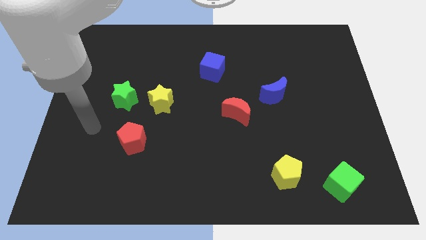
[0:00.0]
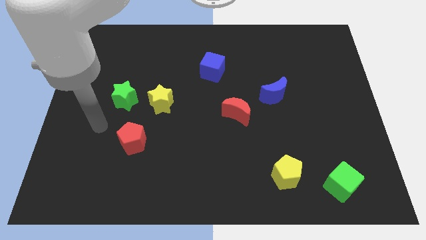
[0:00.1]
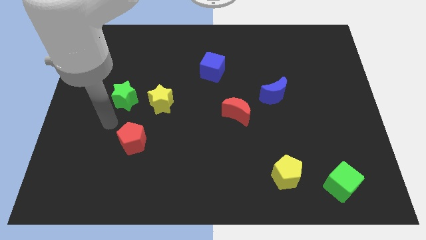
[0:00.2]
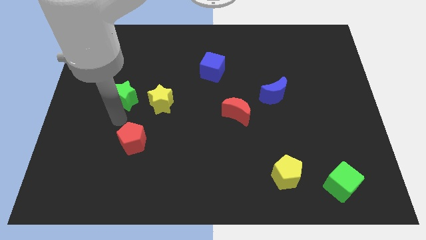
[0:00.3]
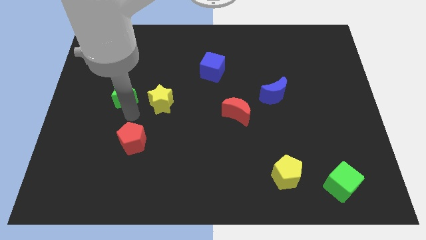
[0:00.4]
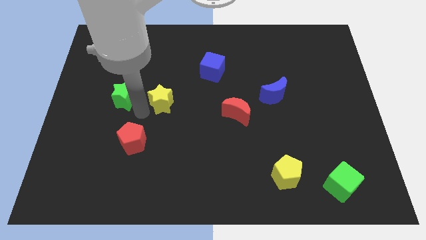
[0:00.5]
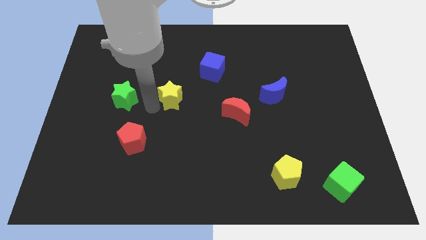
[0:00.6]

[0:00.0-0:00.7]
move the green star away from the yellow star

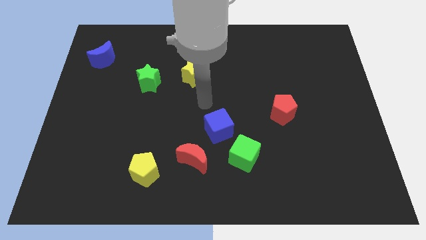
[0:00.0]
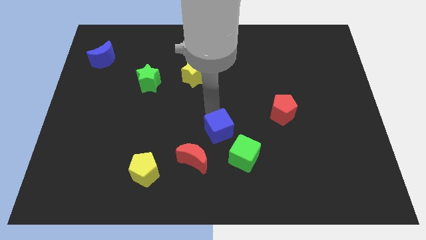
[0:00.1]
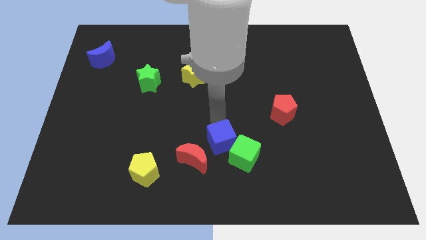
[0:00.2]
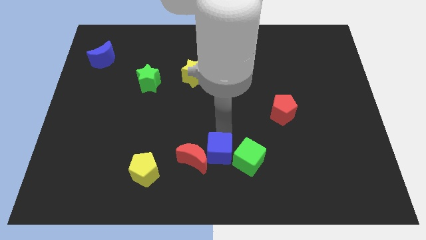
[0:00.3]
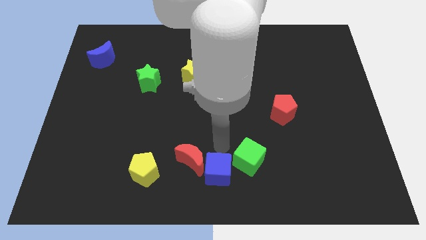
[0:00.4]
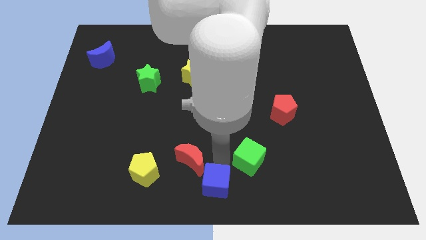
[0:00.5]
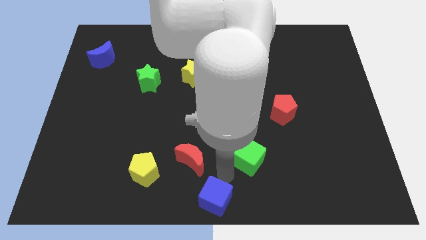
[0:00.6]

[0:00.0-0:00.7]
separate the green cube from the blue cube

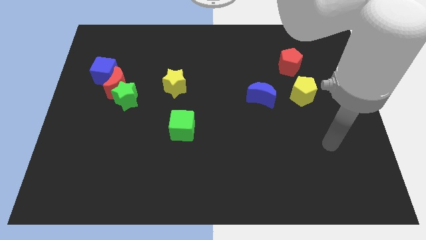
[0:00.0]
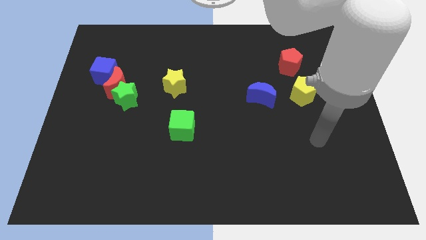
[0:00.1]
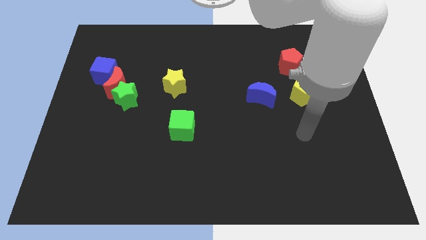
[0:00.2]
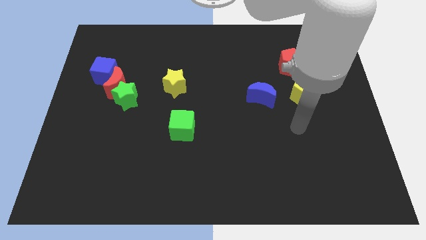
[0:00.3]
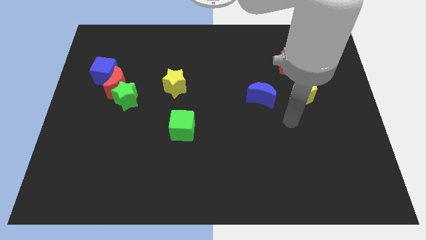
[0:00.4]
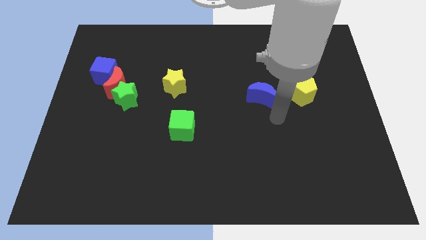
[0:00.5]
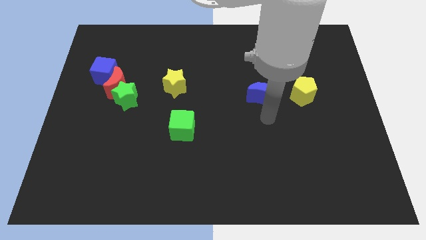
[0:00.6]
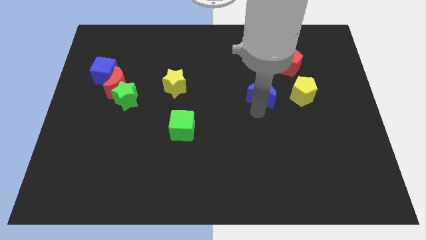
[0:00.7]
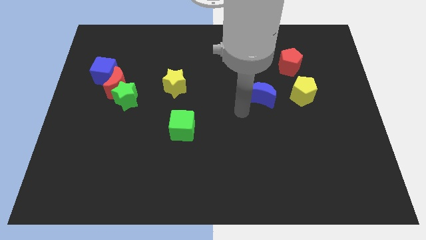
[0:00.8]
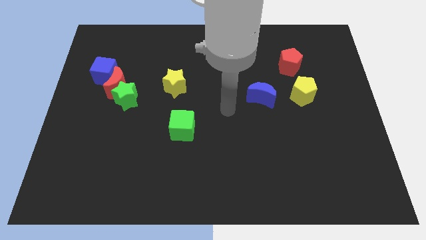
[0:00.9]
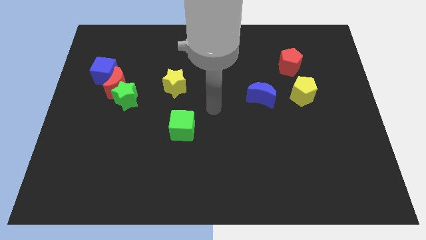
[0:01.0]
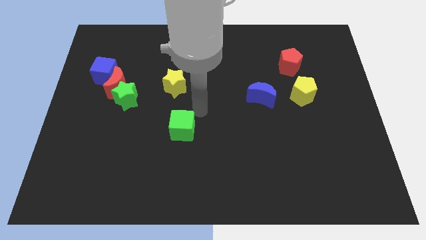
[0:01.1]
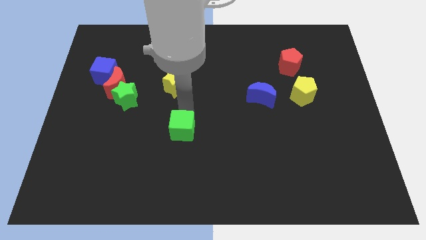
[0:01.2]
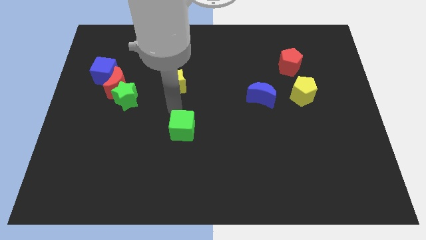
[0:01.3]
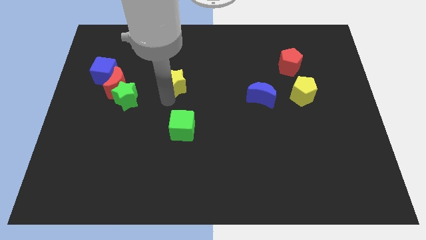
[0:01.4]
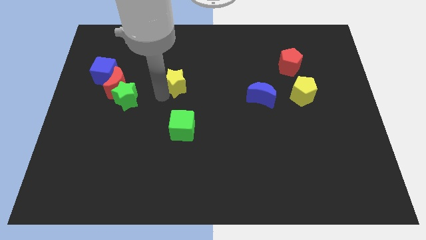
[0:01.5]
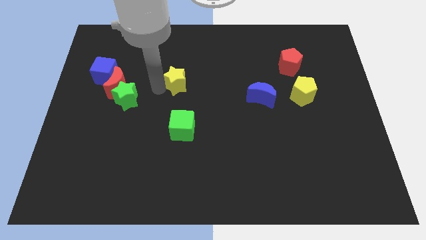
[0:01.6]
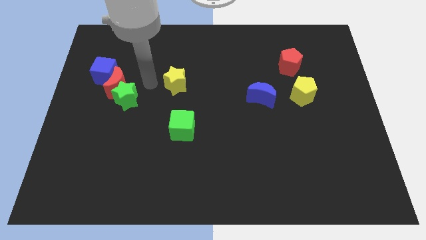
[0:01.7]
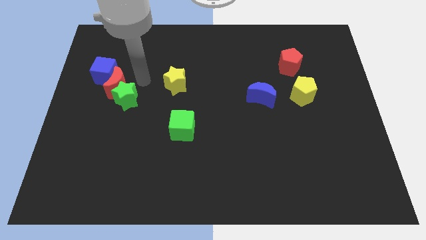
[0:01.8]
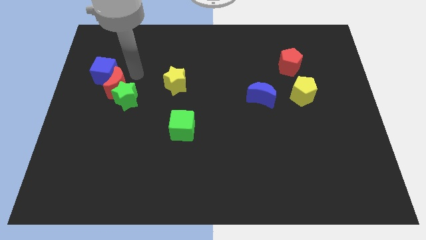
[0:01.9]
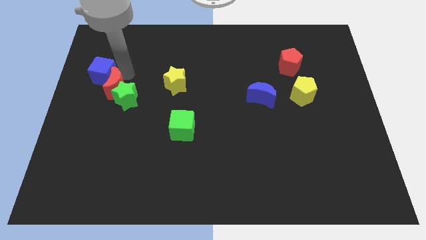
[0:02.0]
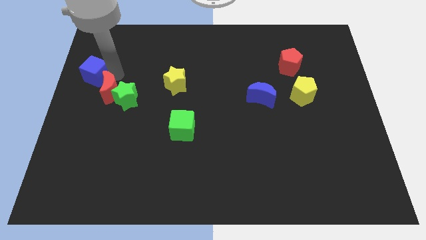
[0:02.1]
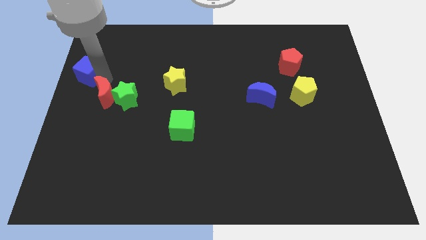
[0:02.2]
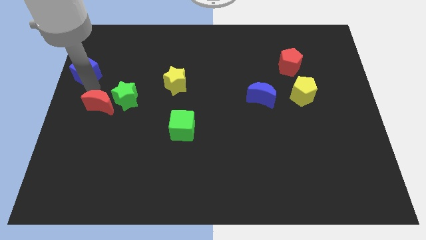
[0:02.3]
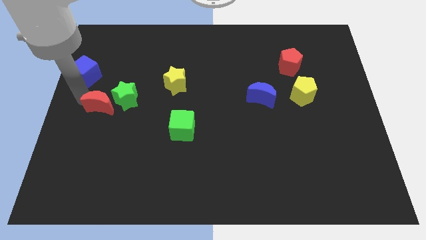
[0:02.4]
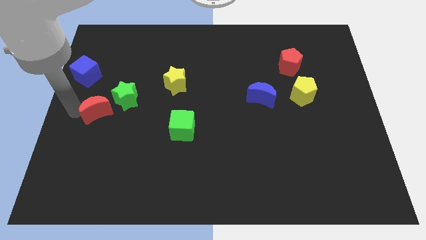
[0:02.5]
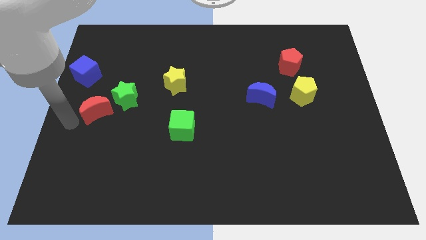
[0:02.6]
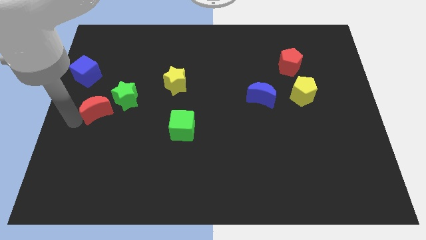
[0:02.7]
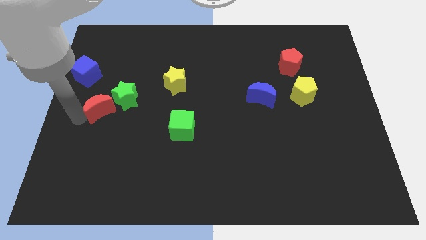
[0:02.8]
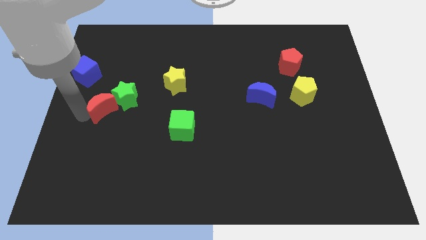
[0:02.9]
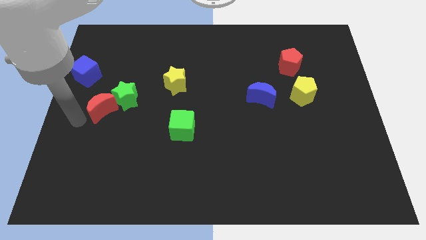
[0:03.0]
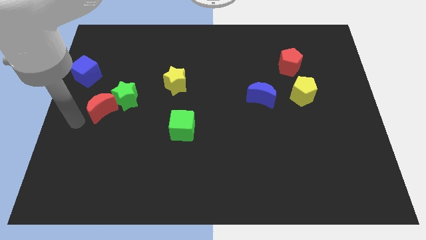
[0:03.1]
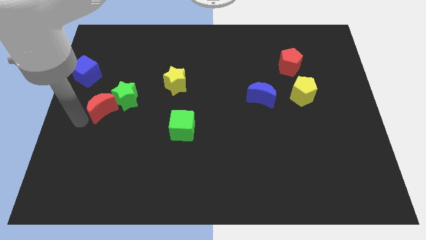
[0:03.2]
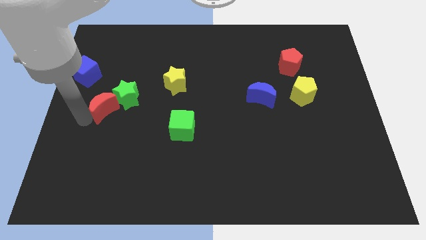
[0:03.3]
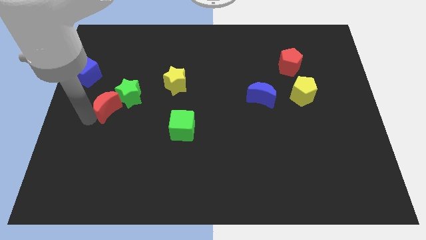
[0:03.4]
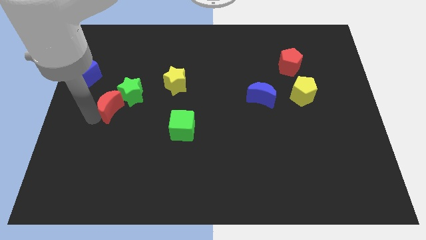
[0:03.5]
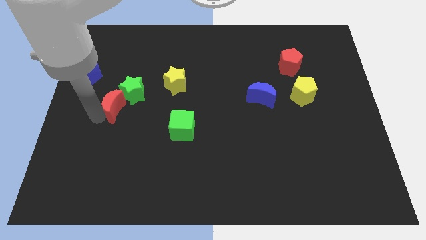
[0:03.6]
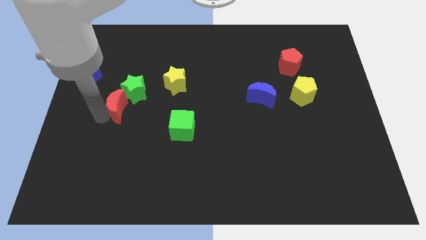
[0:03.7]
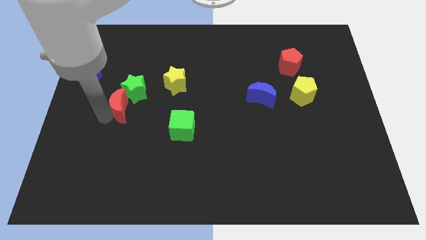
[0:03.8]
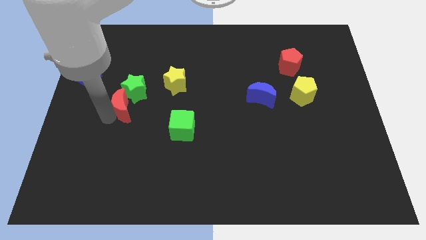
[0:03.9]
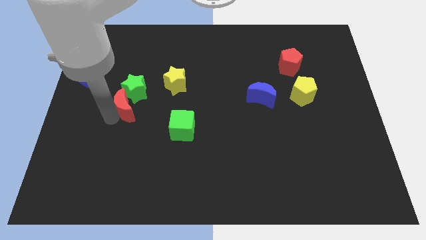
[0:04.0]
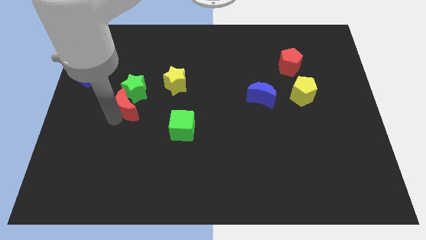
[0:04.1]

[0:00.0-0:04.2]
pull the red moon apart from the green star and blue cube

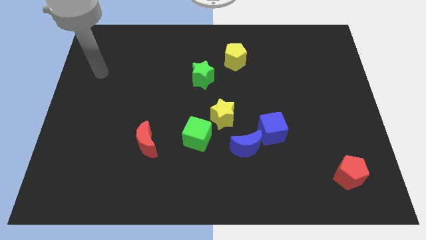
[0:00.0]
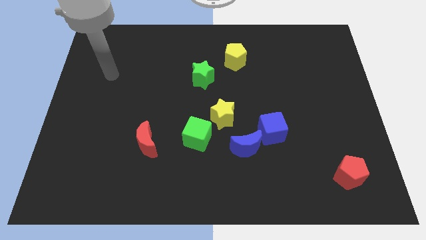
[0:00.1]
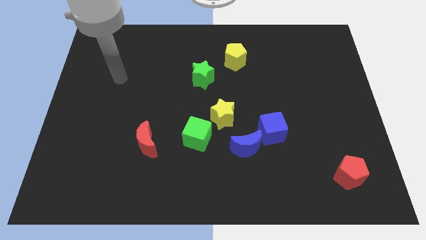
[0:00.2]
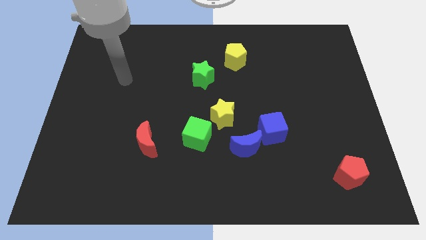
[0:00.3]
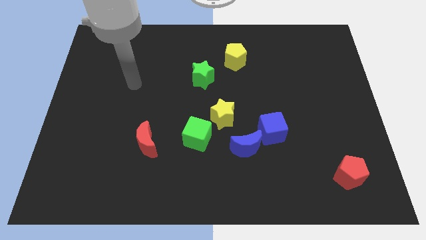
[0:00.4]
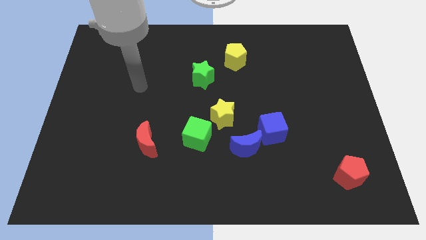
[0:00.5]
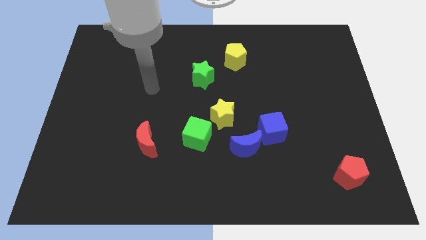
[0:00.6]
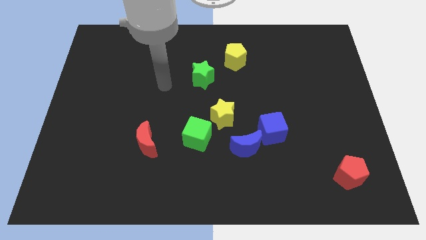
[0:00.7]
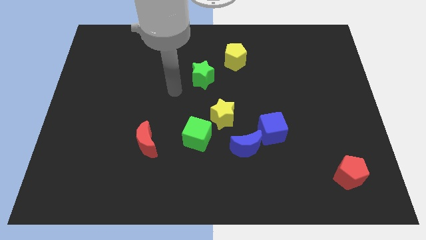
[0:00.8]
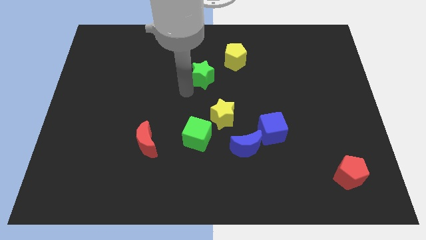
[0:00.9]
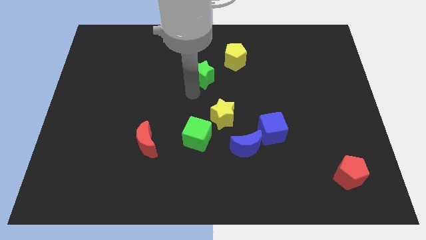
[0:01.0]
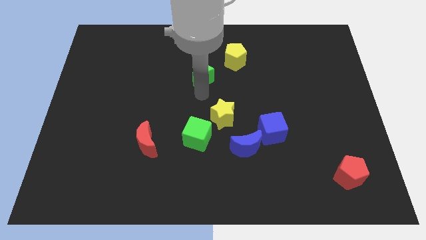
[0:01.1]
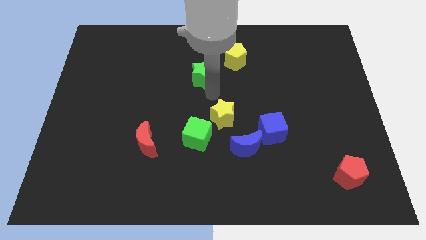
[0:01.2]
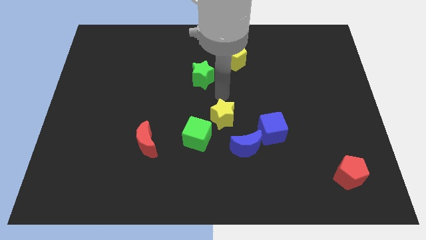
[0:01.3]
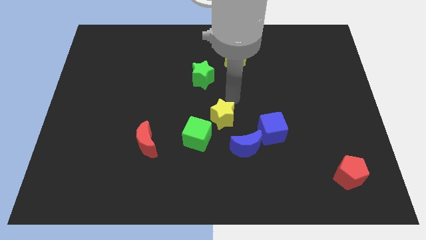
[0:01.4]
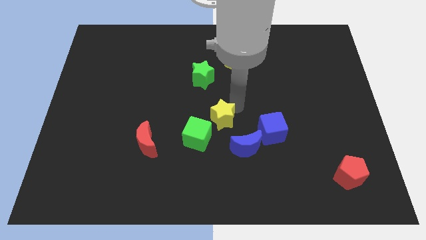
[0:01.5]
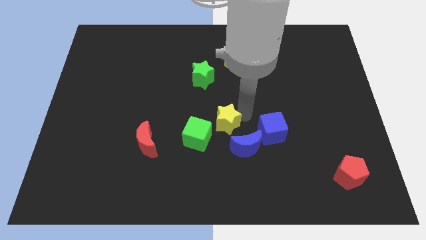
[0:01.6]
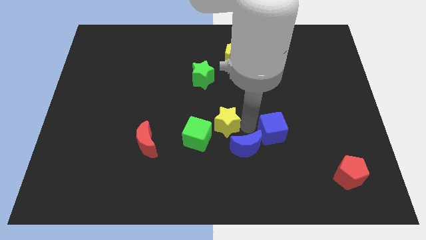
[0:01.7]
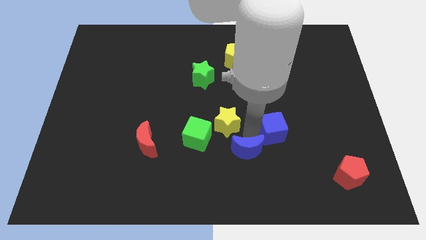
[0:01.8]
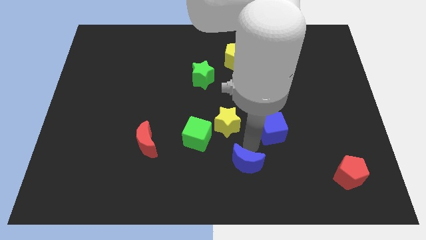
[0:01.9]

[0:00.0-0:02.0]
pull the blue cube apart from the blue moon

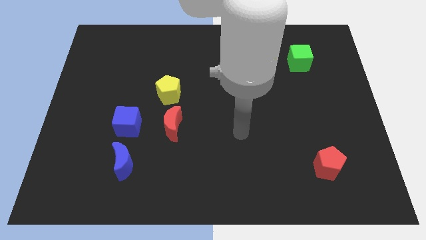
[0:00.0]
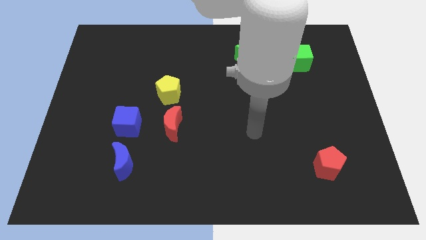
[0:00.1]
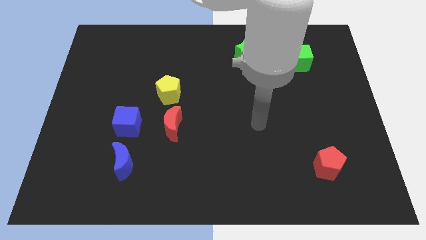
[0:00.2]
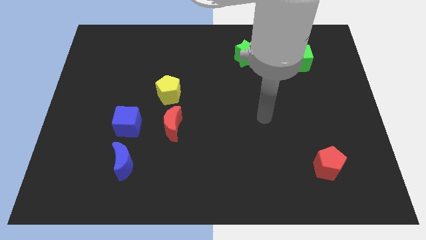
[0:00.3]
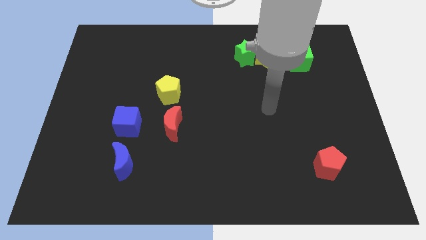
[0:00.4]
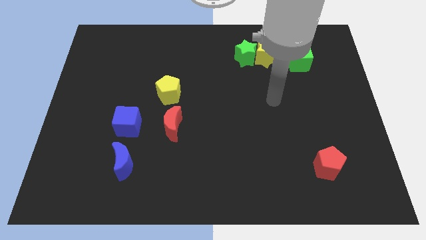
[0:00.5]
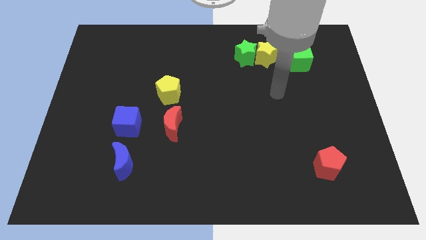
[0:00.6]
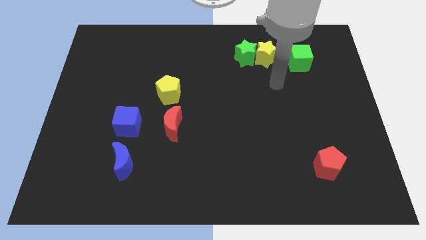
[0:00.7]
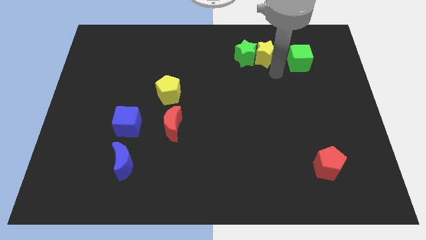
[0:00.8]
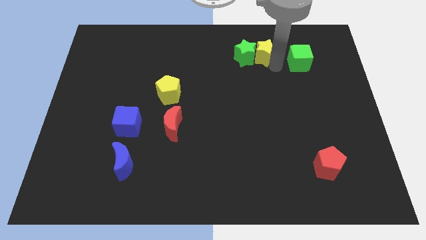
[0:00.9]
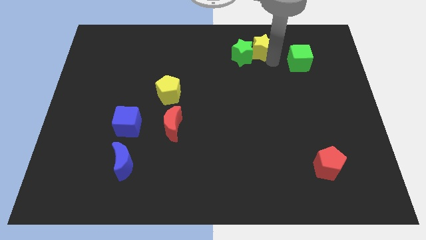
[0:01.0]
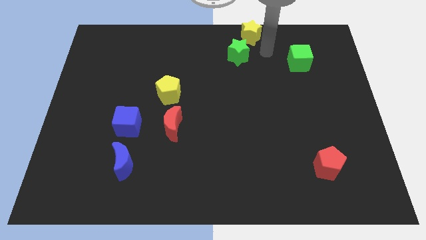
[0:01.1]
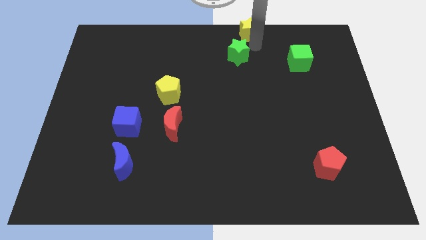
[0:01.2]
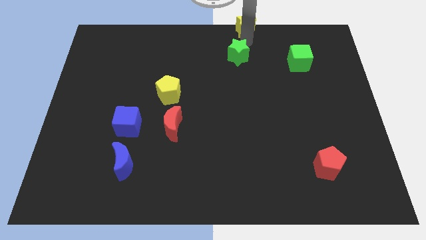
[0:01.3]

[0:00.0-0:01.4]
pull the green star apart from the yellow star

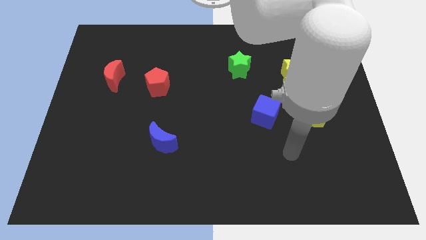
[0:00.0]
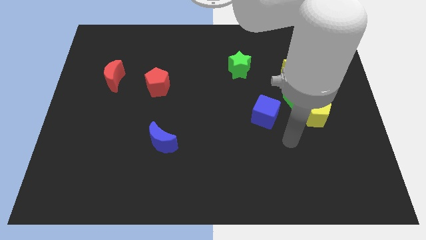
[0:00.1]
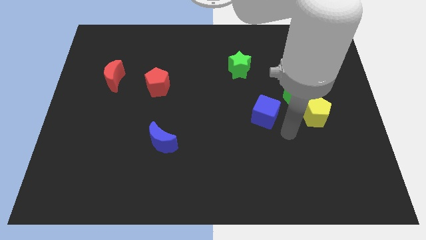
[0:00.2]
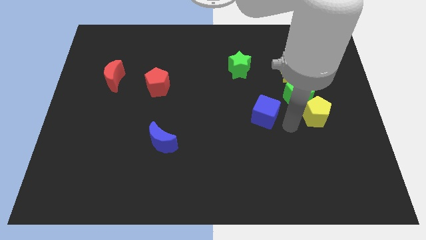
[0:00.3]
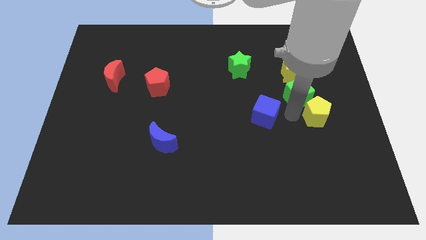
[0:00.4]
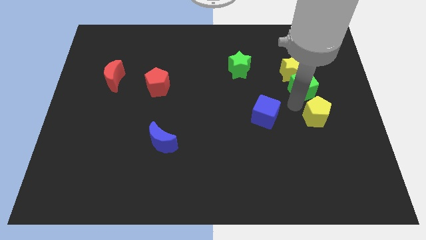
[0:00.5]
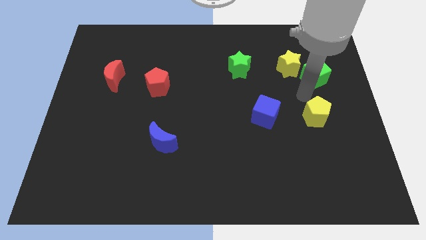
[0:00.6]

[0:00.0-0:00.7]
pull the yellow pentagon apart from the green cube
